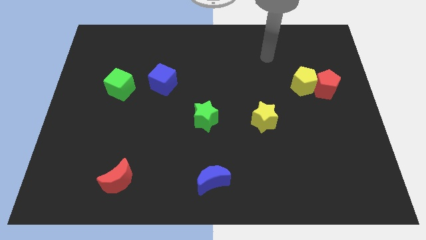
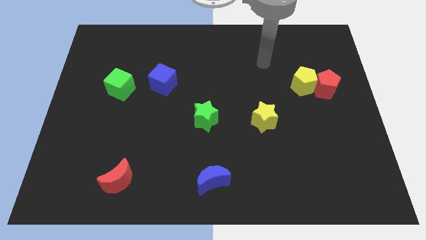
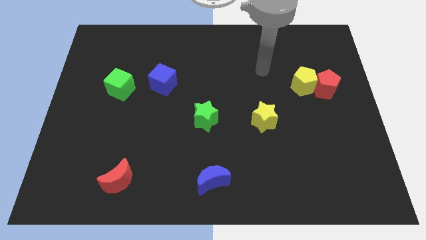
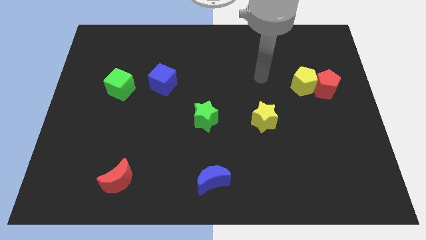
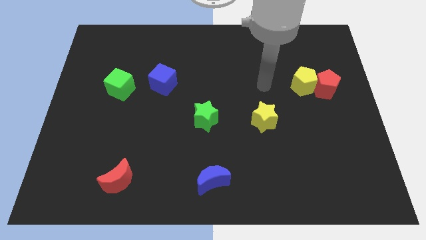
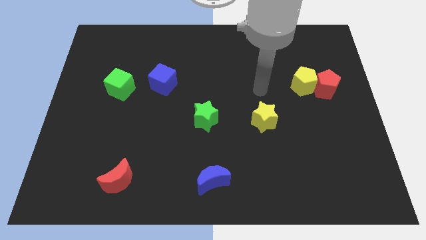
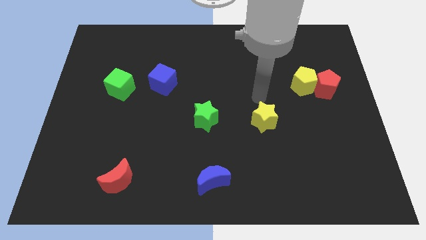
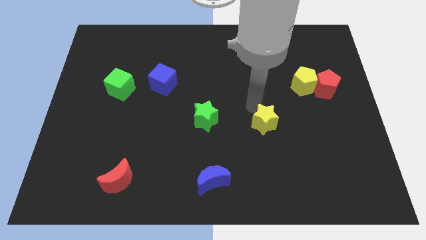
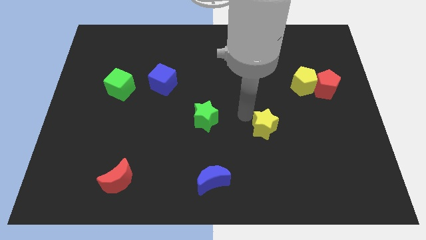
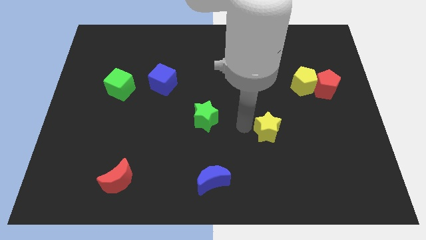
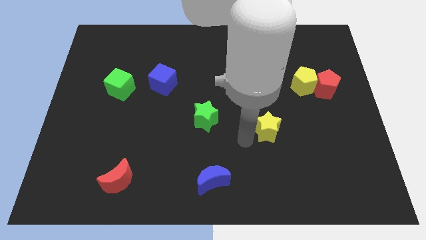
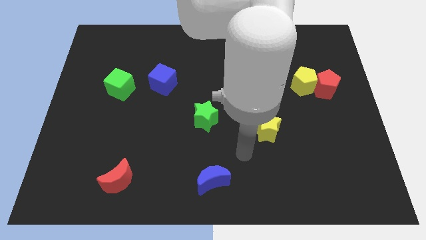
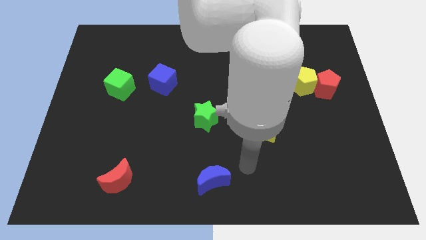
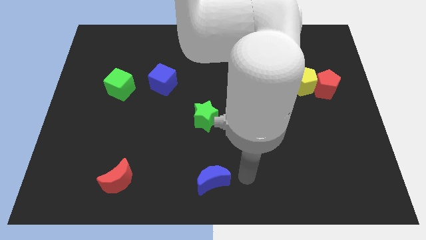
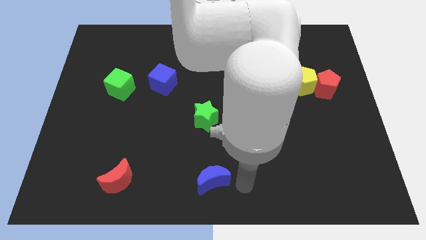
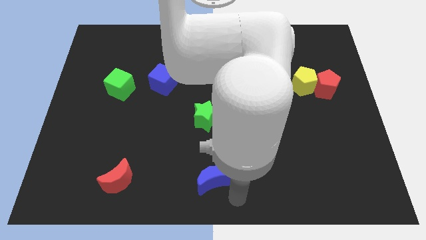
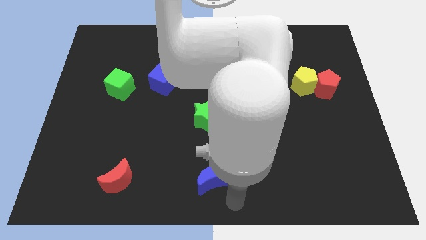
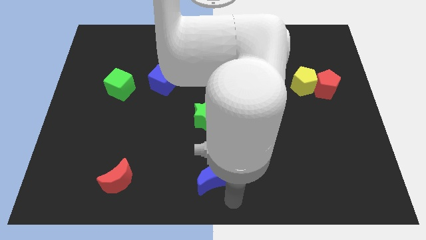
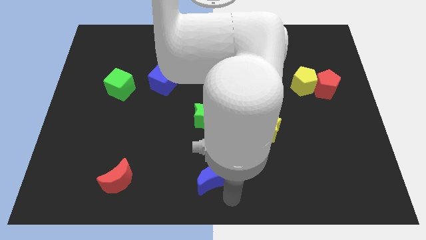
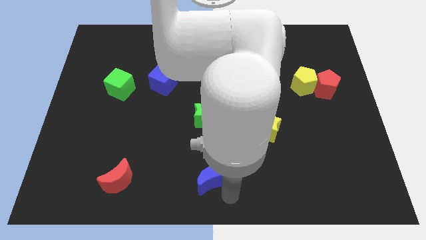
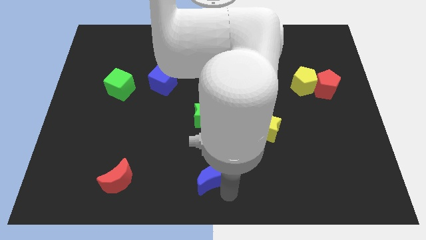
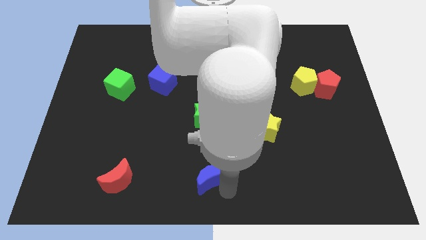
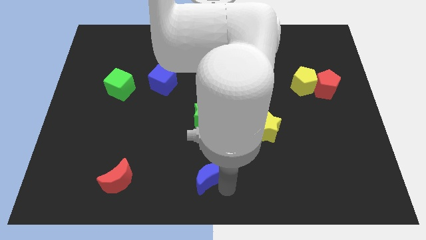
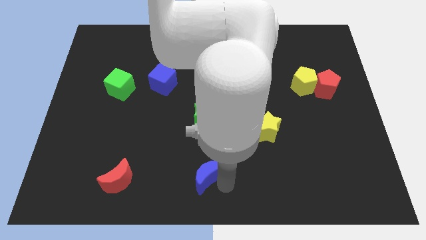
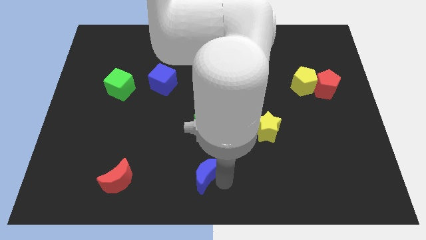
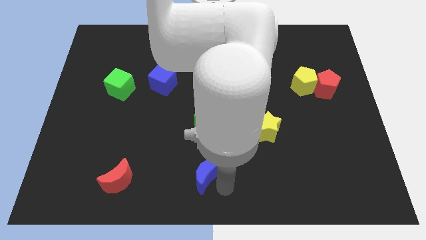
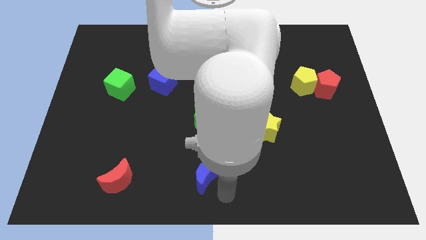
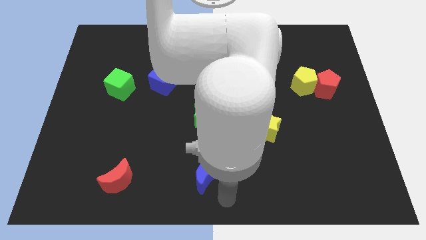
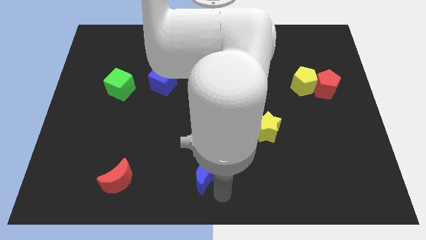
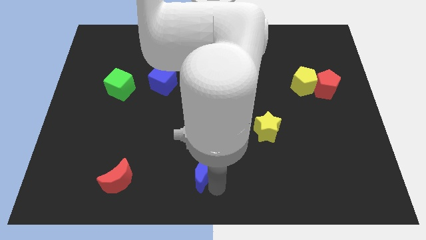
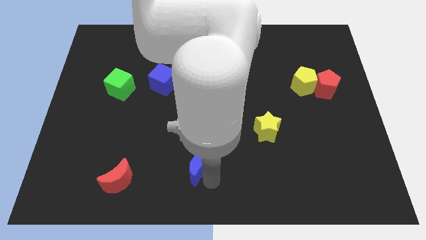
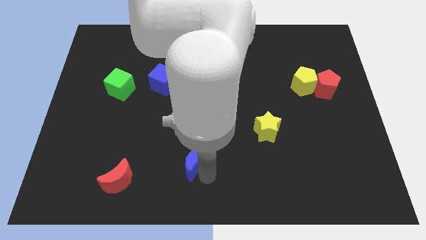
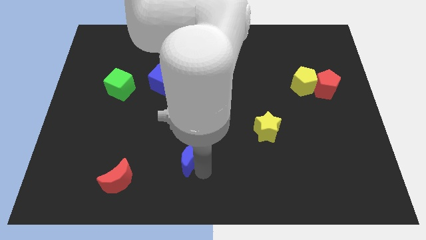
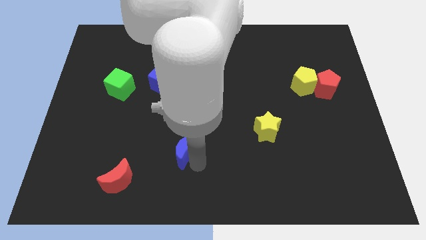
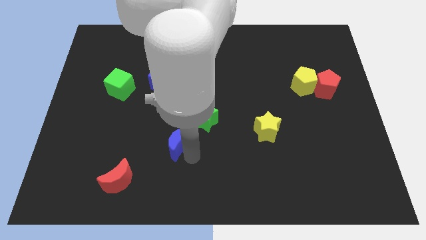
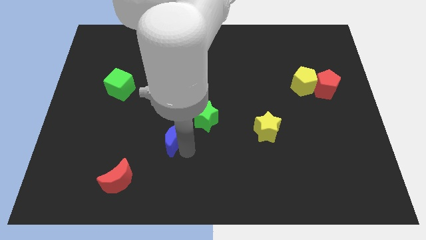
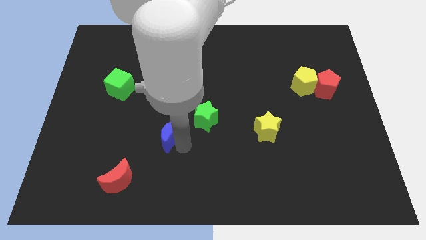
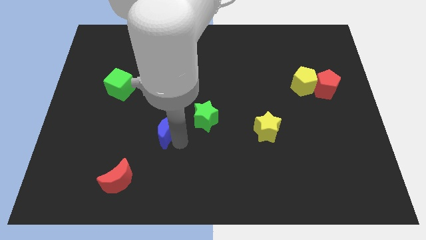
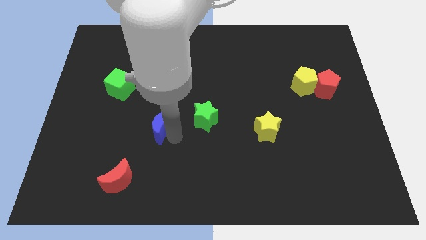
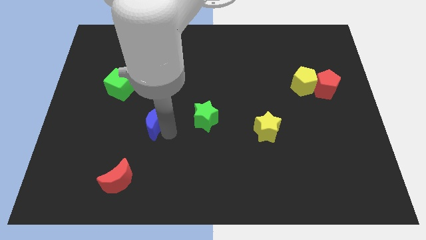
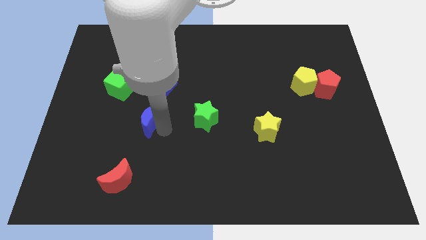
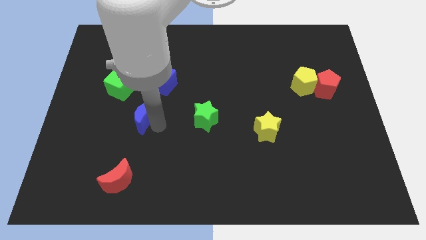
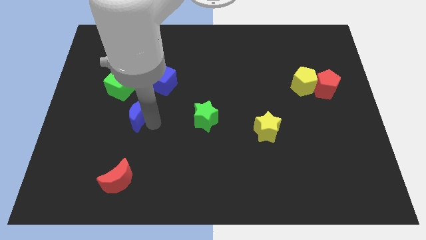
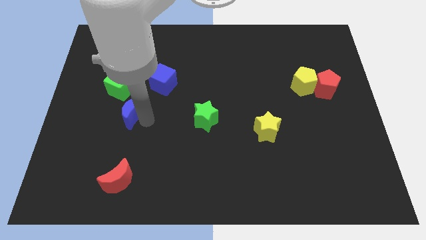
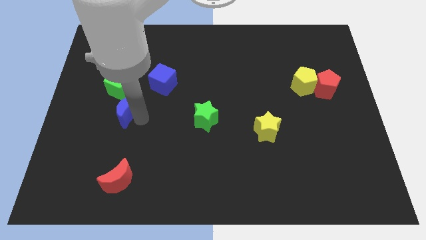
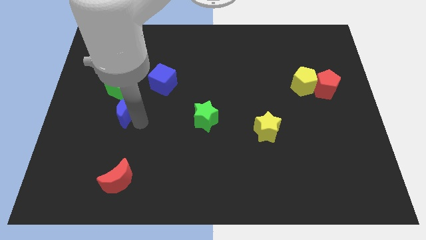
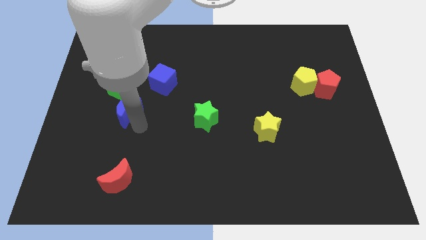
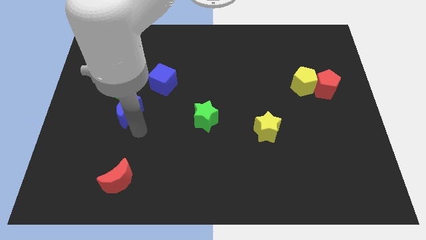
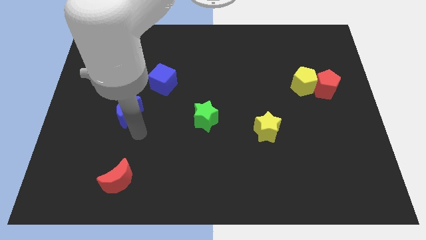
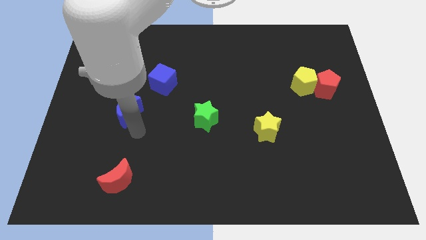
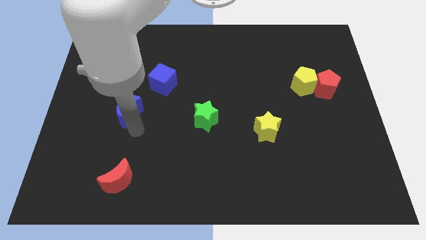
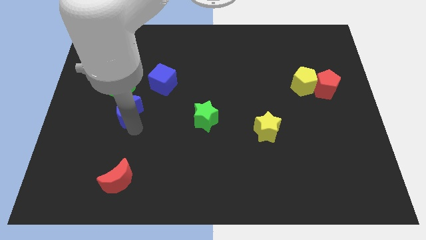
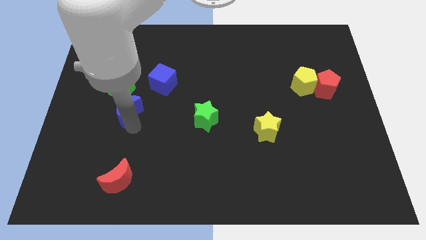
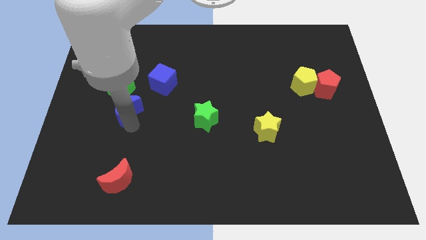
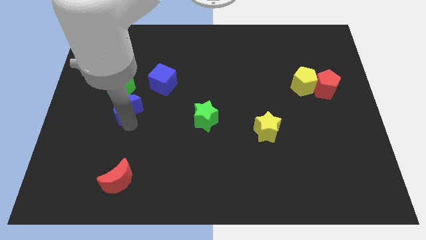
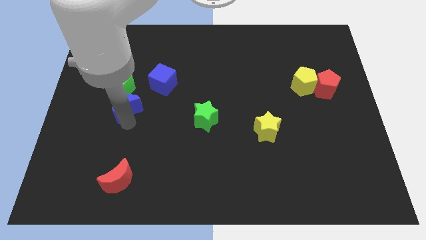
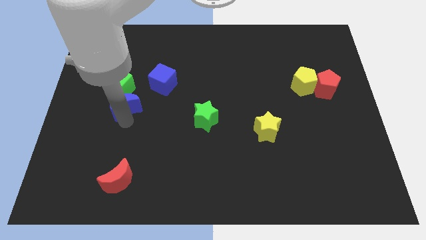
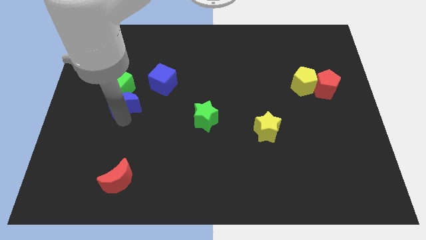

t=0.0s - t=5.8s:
push the blue moon towards the green cube

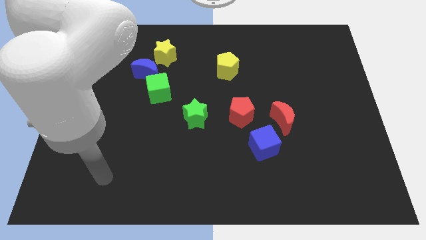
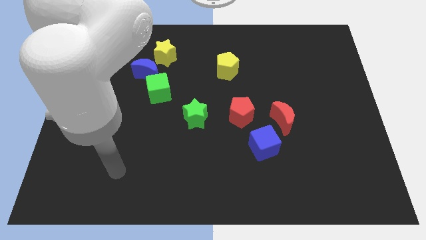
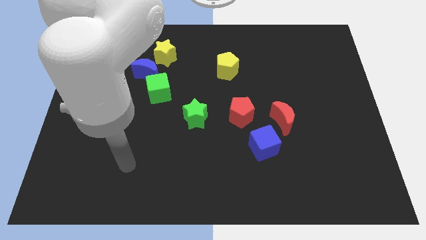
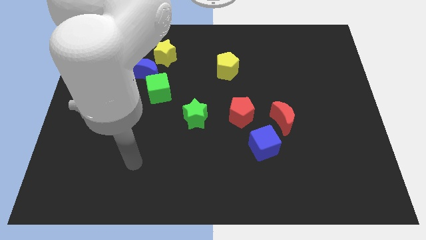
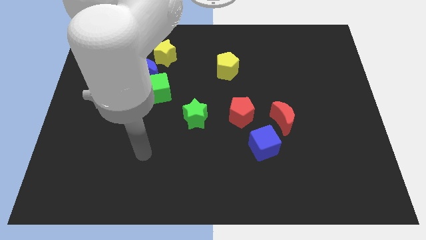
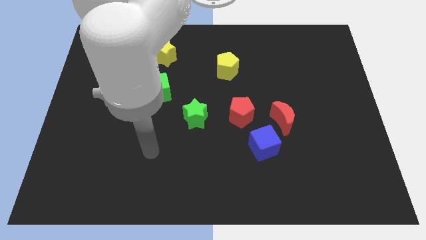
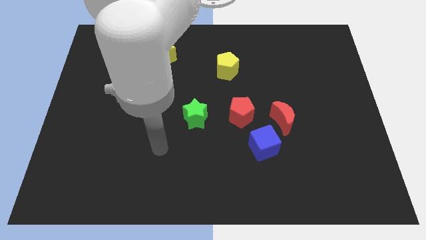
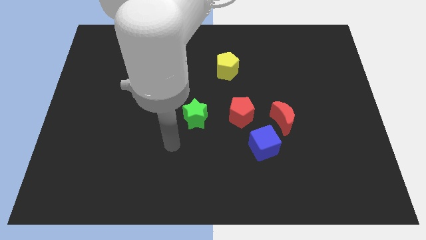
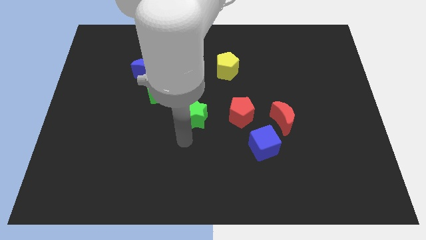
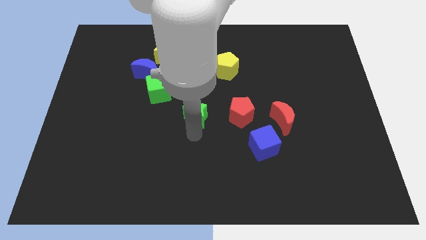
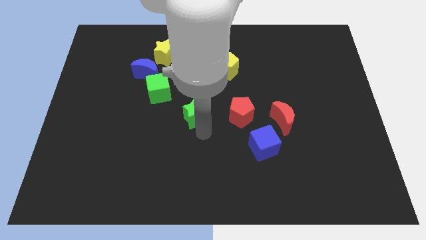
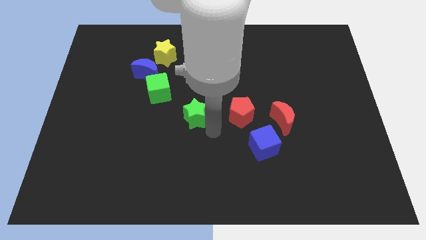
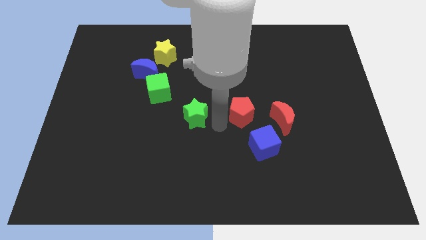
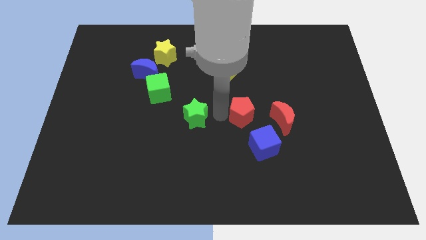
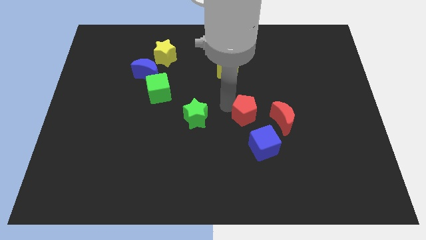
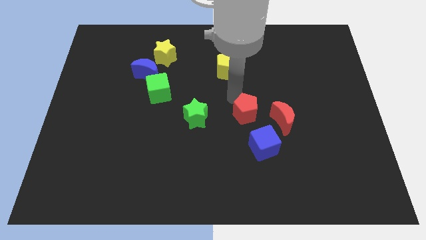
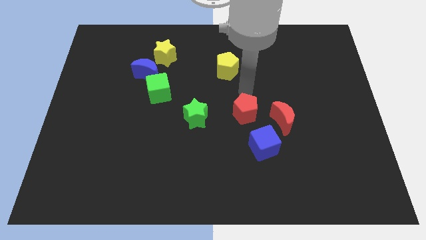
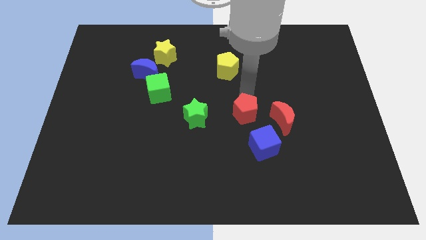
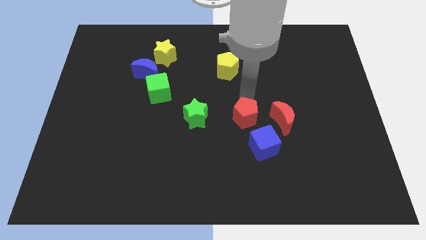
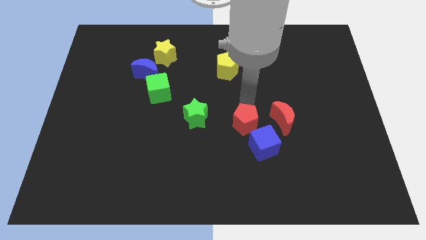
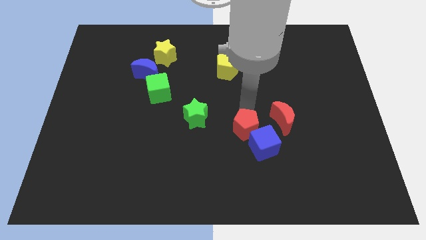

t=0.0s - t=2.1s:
move the red pentagon close to the blue cube

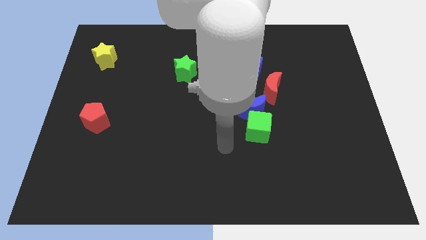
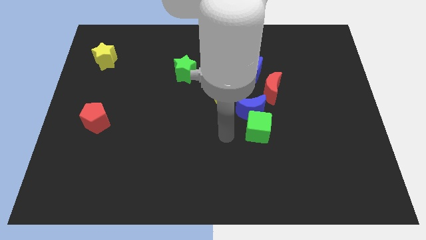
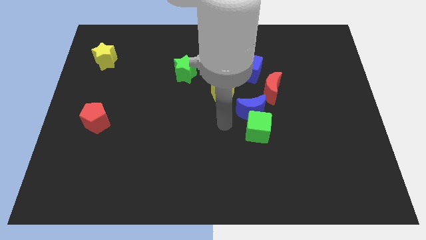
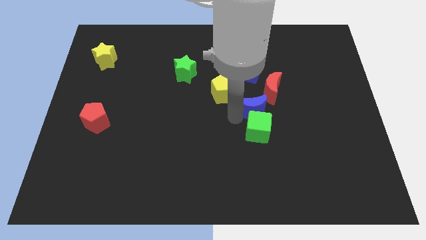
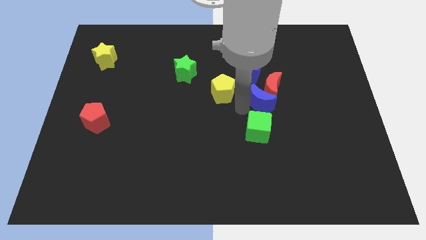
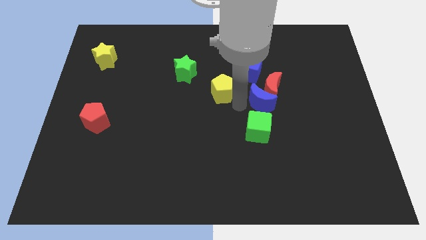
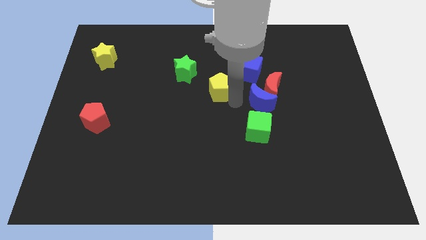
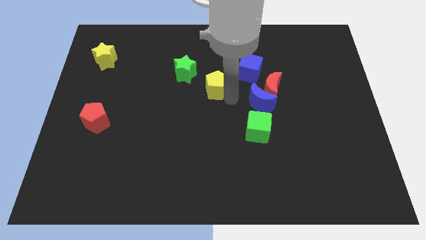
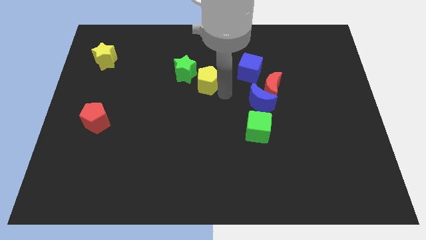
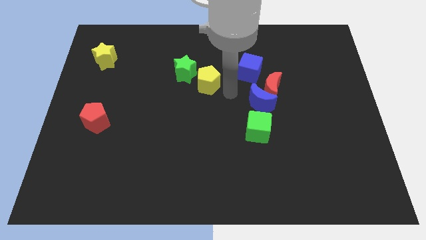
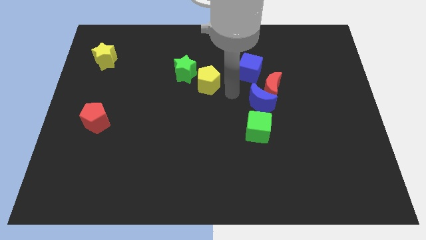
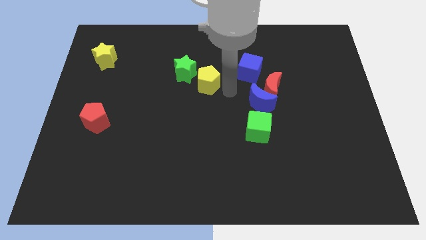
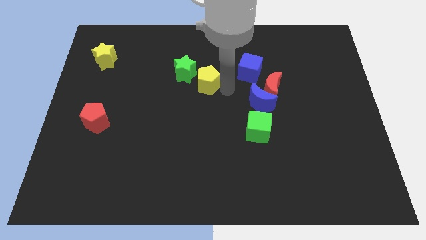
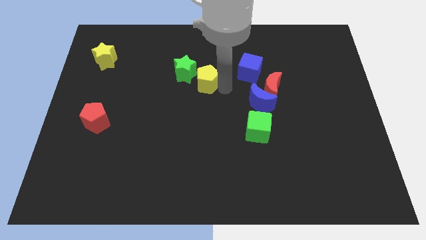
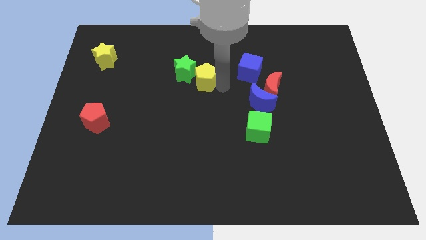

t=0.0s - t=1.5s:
push the yellow pentagon towards the green star
